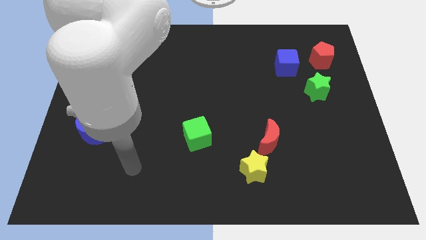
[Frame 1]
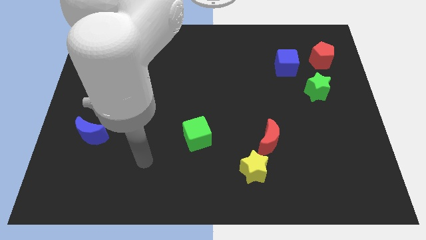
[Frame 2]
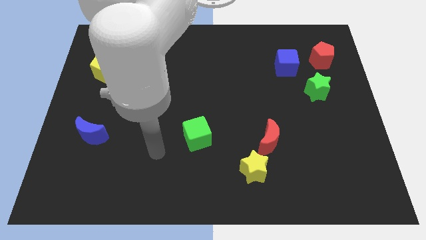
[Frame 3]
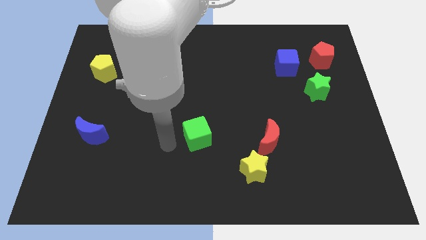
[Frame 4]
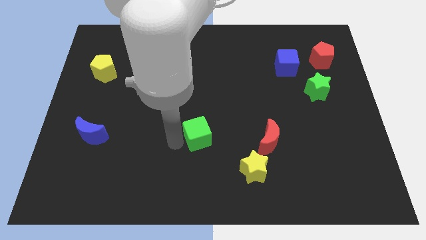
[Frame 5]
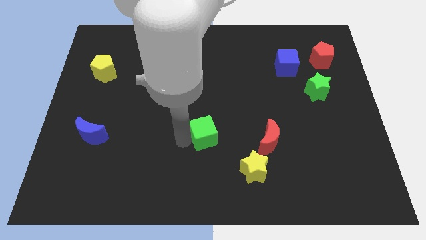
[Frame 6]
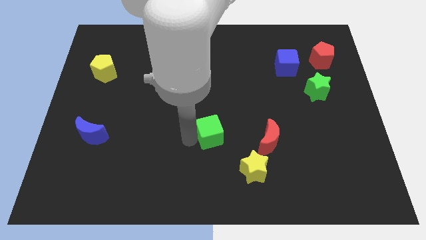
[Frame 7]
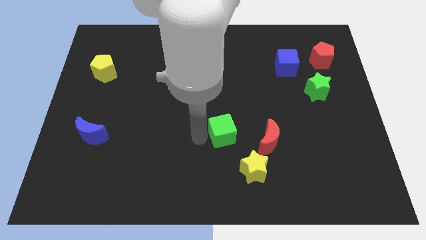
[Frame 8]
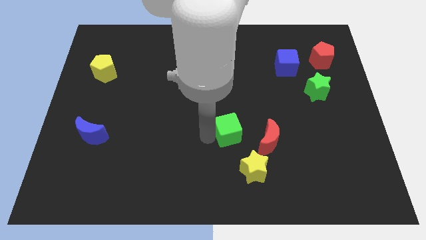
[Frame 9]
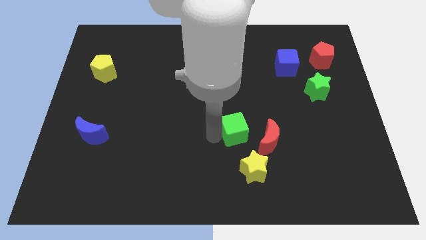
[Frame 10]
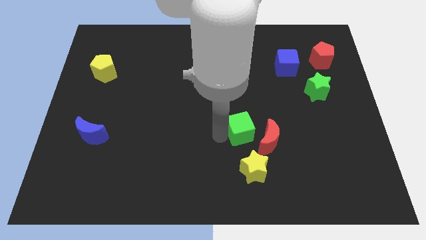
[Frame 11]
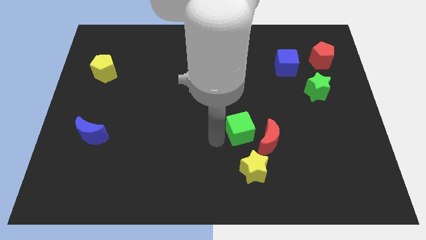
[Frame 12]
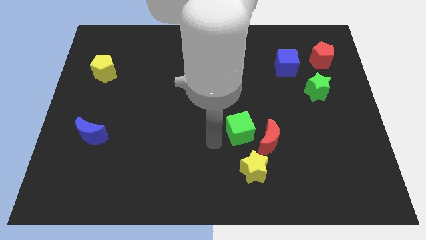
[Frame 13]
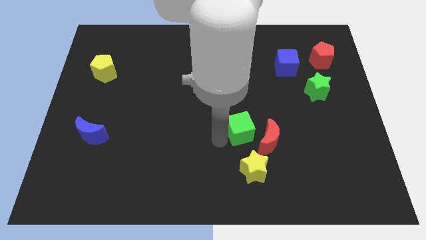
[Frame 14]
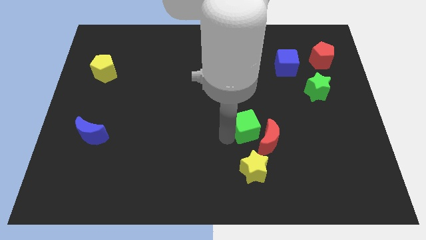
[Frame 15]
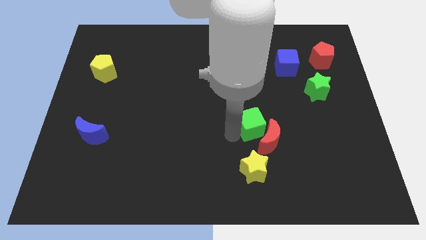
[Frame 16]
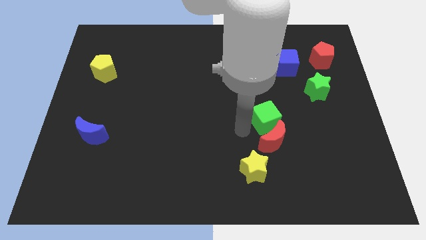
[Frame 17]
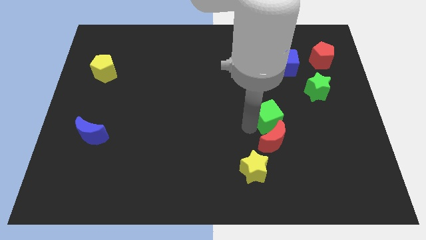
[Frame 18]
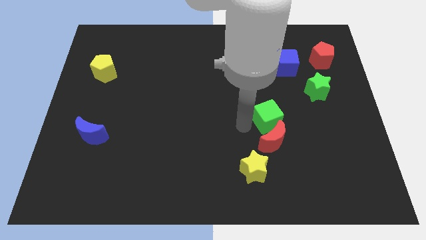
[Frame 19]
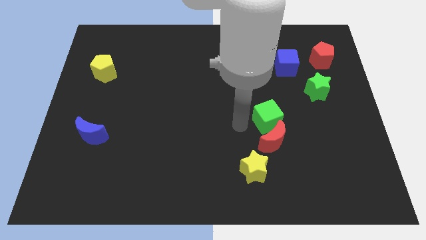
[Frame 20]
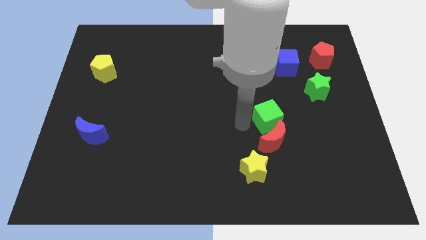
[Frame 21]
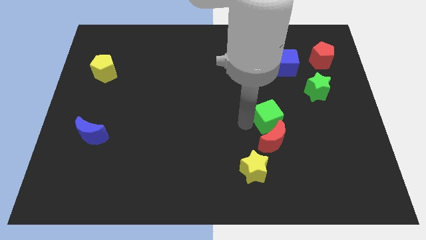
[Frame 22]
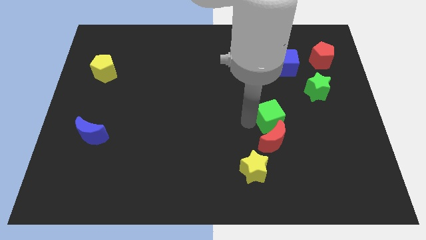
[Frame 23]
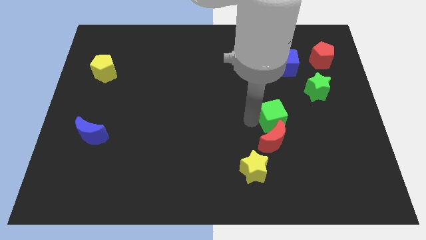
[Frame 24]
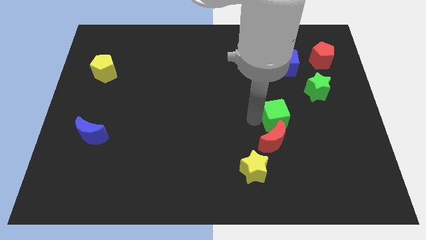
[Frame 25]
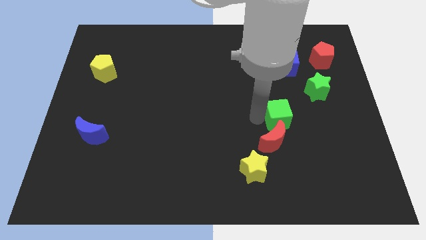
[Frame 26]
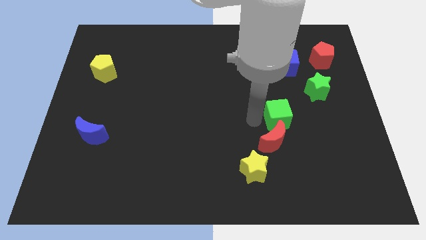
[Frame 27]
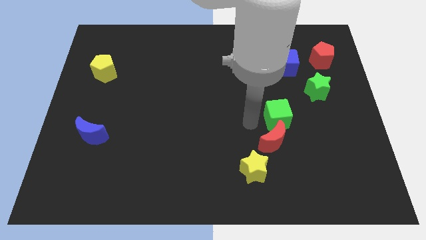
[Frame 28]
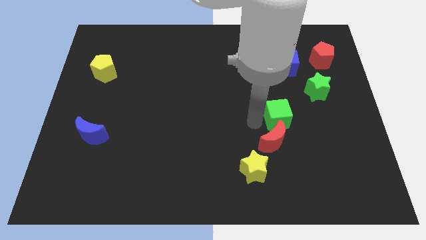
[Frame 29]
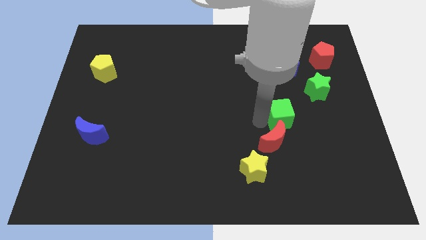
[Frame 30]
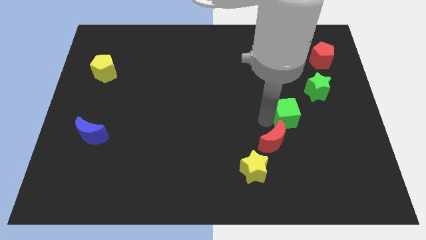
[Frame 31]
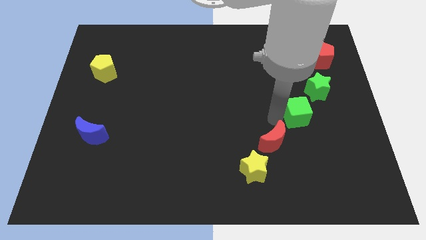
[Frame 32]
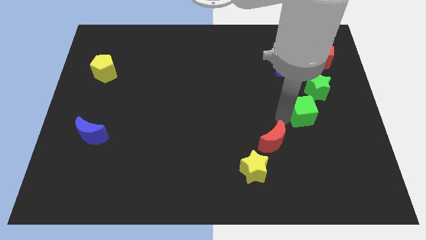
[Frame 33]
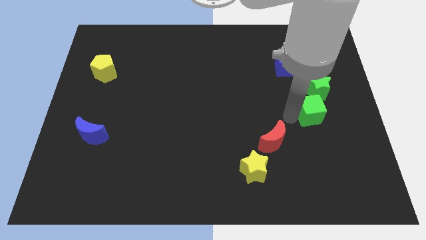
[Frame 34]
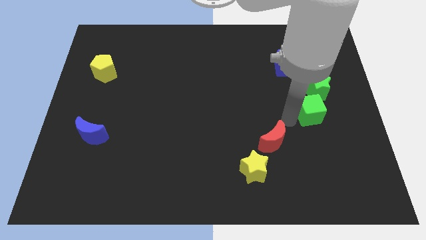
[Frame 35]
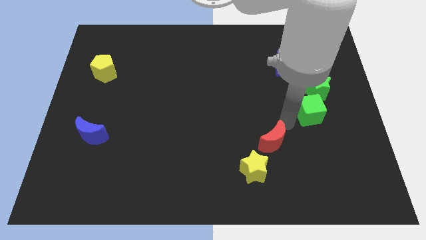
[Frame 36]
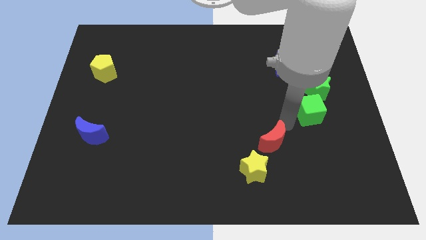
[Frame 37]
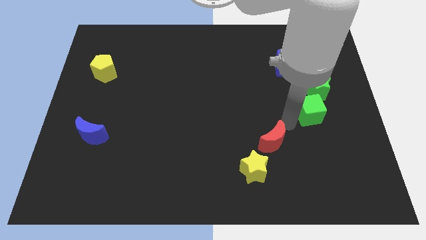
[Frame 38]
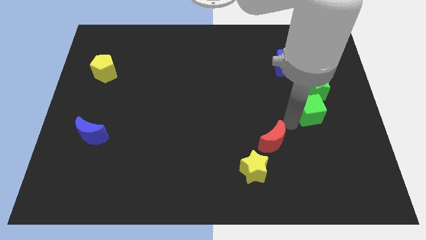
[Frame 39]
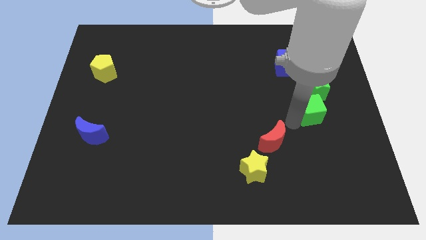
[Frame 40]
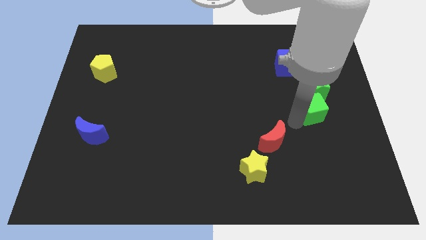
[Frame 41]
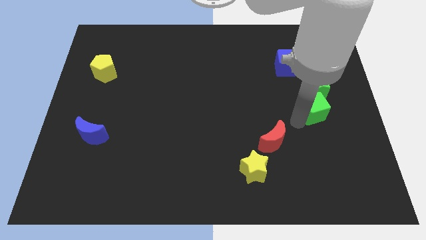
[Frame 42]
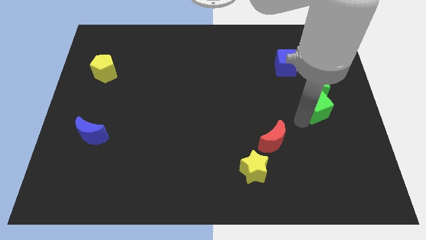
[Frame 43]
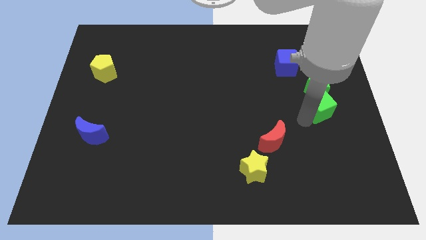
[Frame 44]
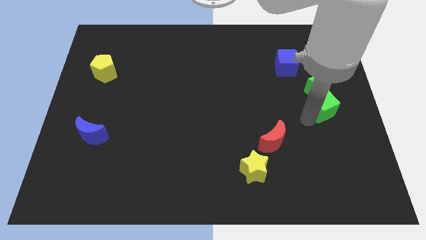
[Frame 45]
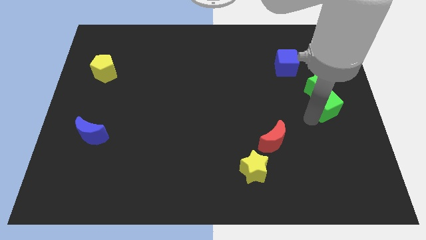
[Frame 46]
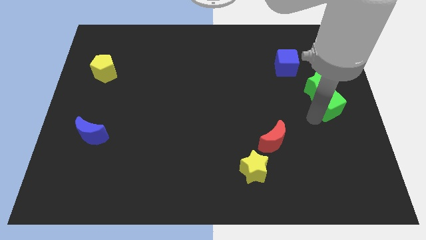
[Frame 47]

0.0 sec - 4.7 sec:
move the green cube below the red pentagon

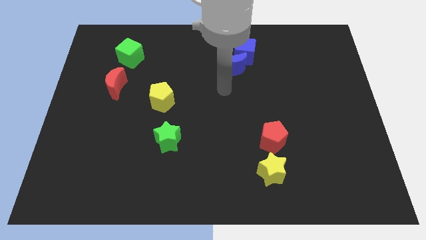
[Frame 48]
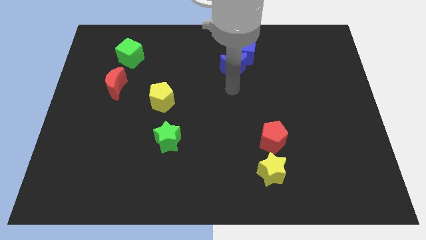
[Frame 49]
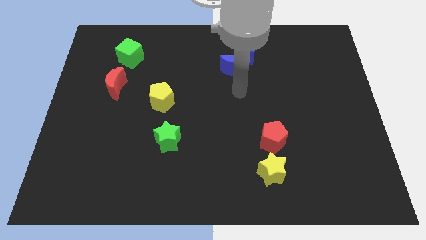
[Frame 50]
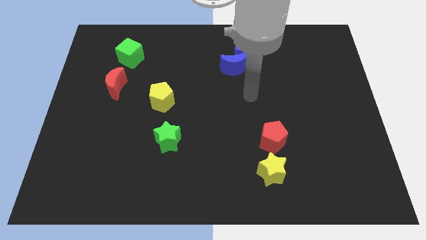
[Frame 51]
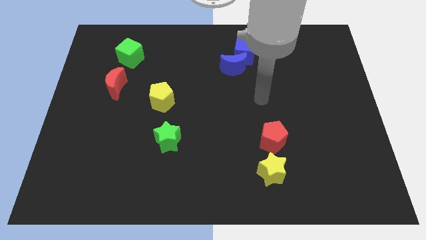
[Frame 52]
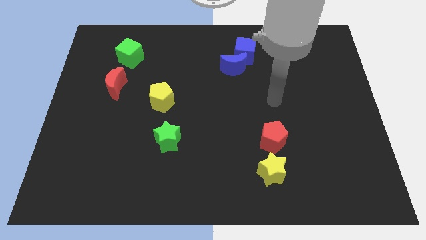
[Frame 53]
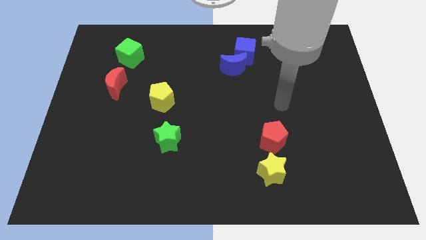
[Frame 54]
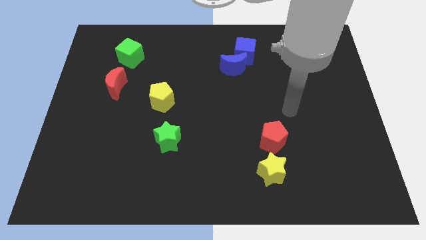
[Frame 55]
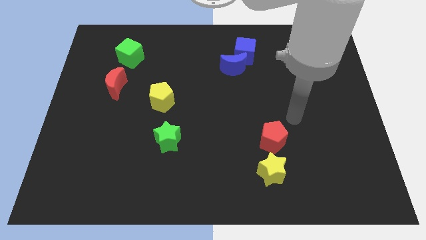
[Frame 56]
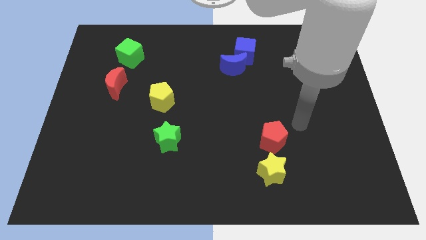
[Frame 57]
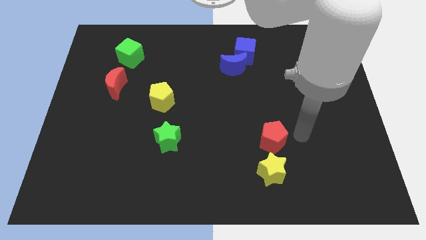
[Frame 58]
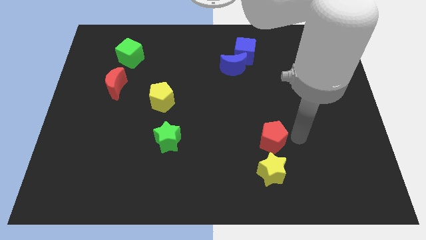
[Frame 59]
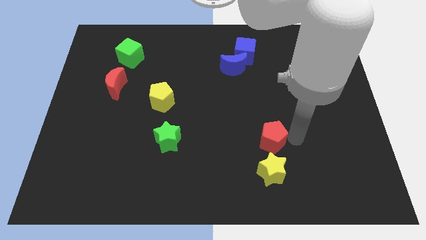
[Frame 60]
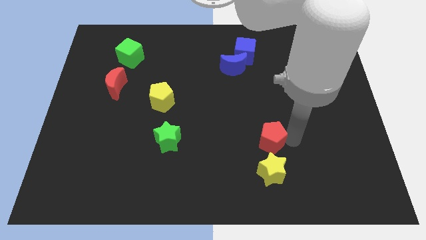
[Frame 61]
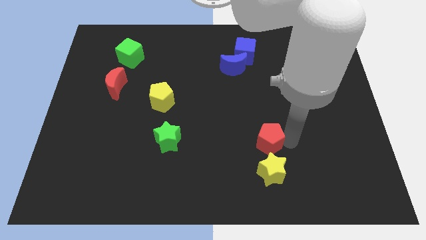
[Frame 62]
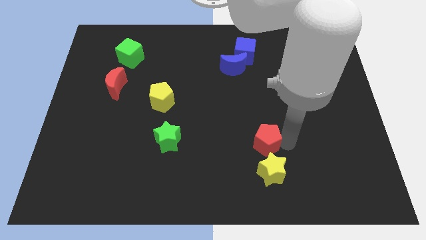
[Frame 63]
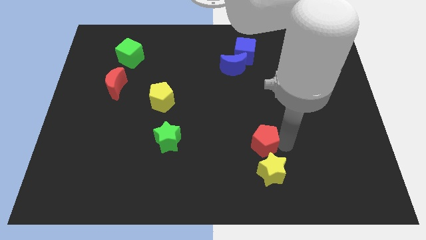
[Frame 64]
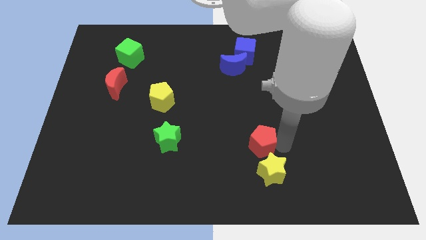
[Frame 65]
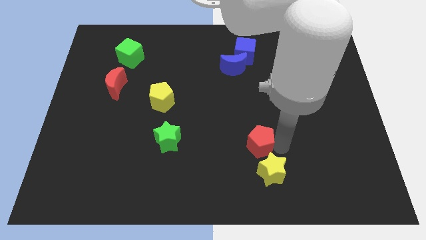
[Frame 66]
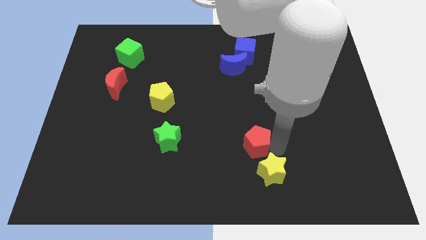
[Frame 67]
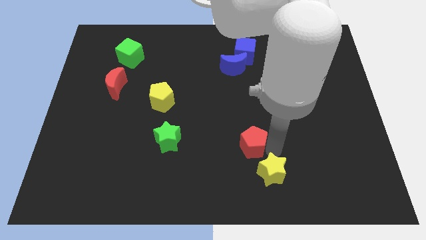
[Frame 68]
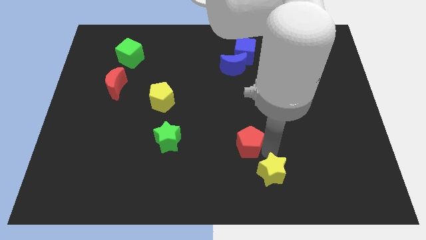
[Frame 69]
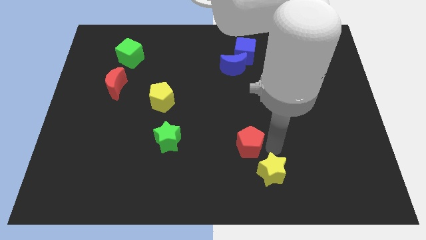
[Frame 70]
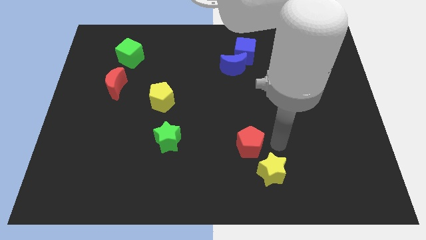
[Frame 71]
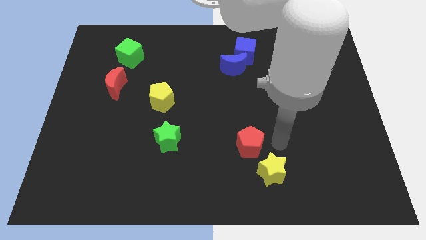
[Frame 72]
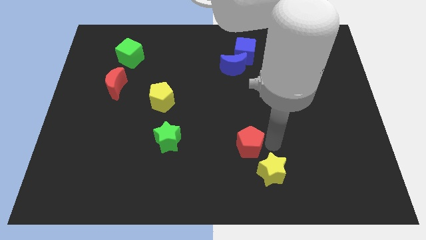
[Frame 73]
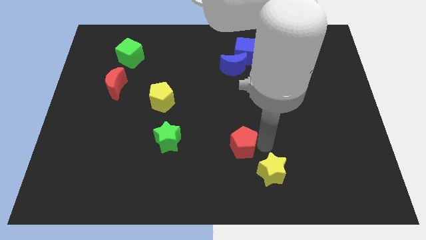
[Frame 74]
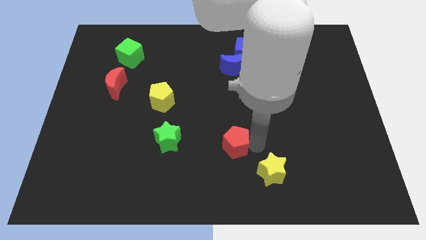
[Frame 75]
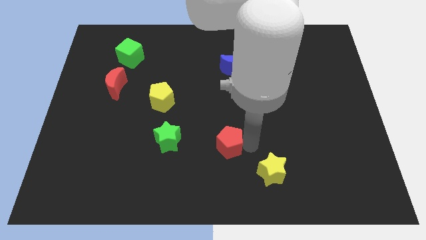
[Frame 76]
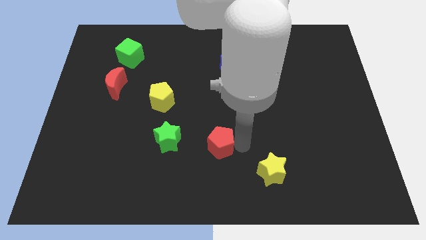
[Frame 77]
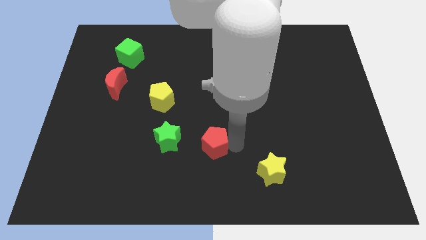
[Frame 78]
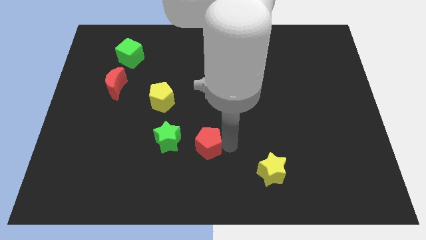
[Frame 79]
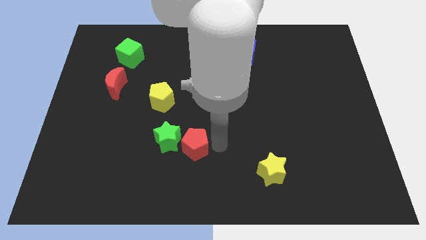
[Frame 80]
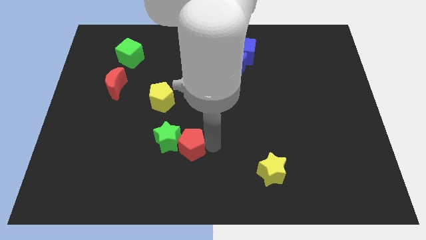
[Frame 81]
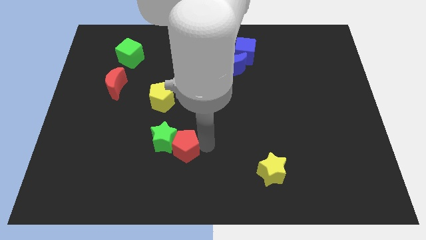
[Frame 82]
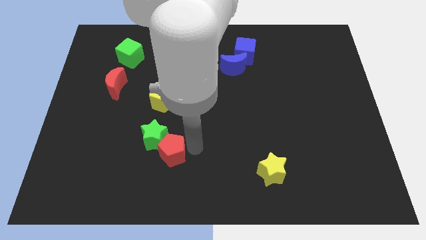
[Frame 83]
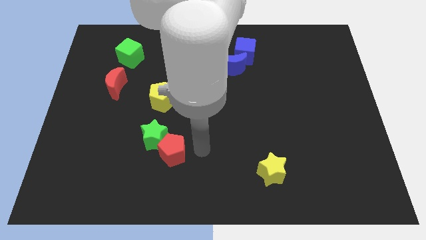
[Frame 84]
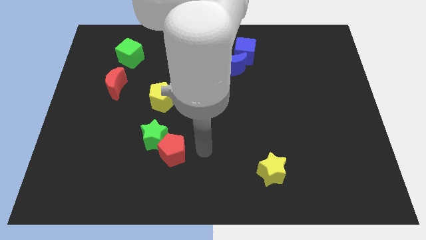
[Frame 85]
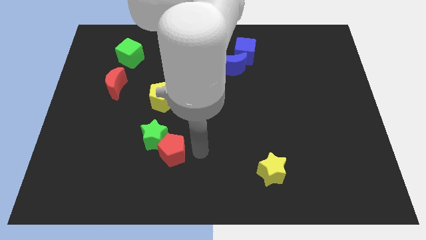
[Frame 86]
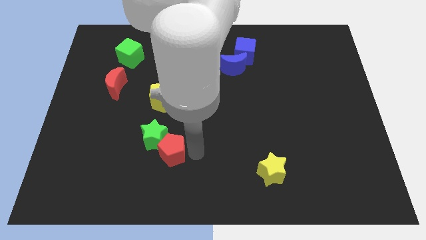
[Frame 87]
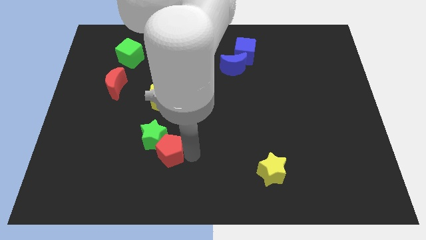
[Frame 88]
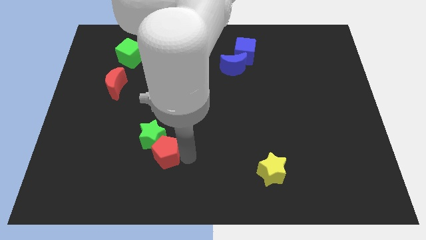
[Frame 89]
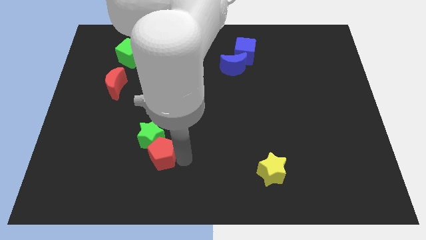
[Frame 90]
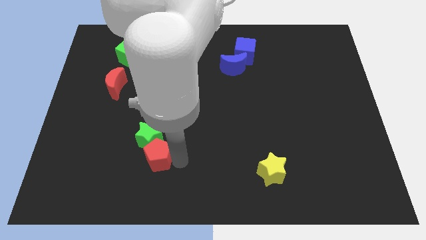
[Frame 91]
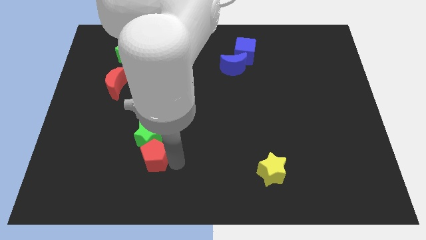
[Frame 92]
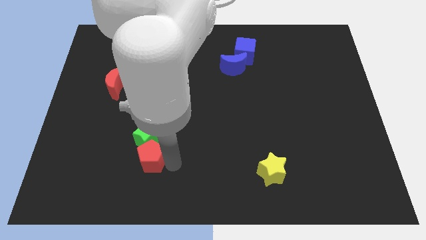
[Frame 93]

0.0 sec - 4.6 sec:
move the red pentagon to the bottom left of the green star
